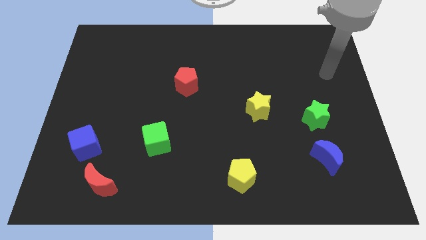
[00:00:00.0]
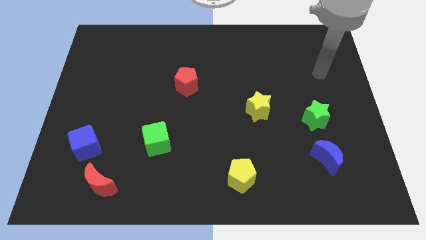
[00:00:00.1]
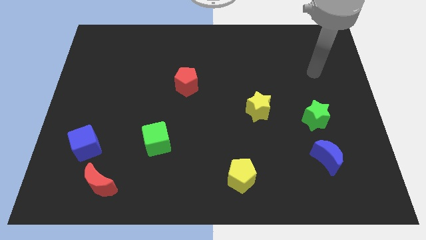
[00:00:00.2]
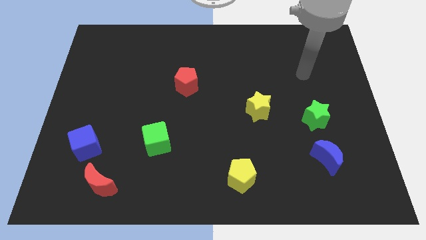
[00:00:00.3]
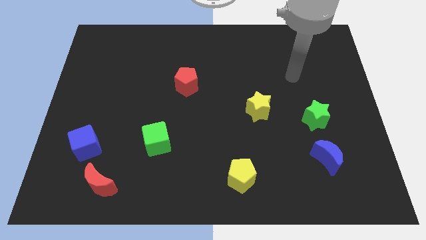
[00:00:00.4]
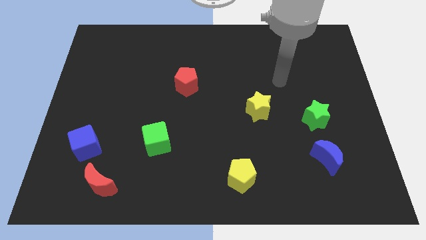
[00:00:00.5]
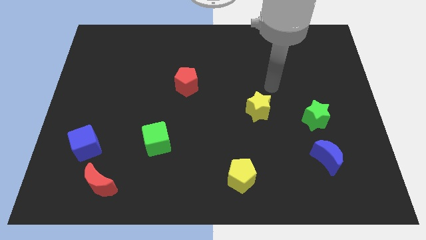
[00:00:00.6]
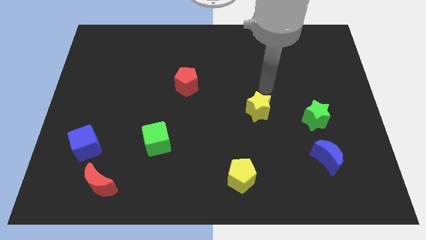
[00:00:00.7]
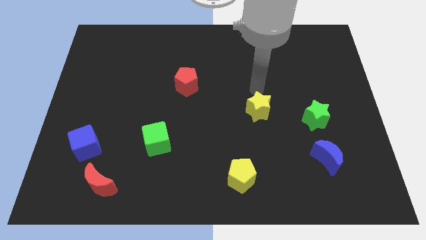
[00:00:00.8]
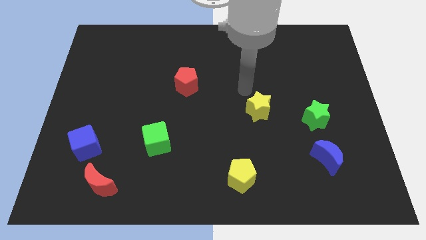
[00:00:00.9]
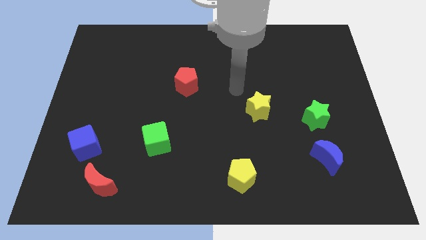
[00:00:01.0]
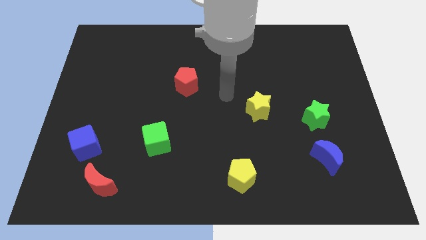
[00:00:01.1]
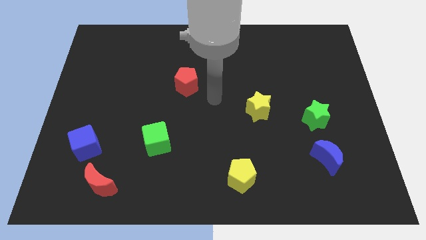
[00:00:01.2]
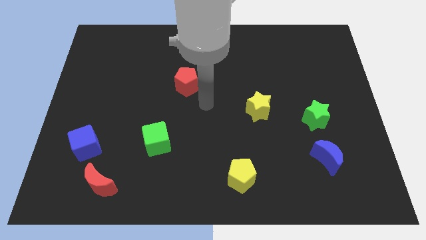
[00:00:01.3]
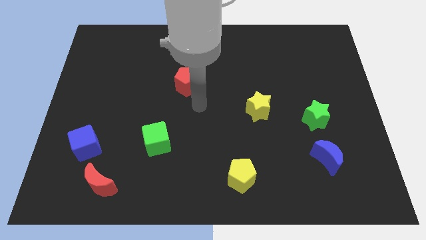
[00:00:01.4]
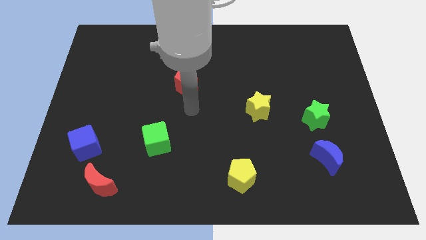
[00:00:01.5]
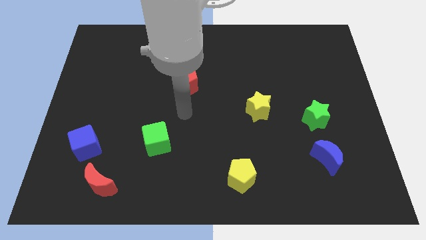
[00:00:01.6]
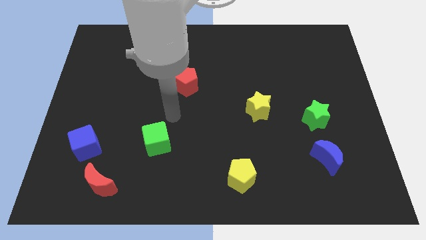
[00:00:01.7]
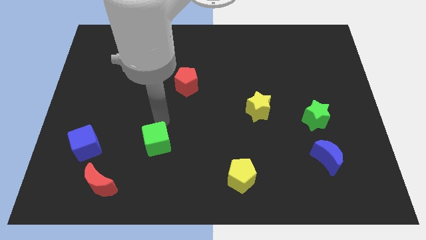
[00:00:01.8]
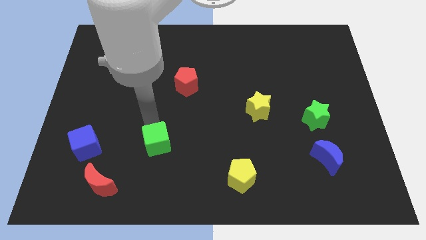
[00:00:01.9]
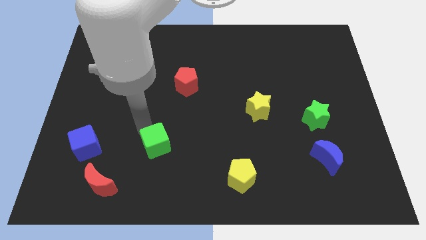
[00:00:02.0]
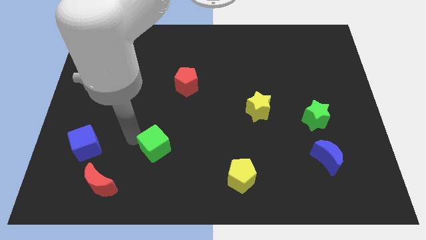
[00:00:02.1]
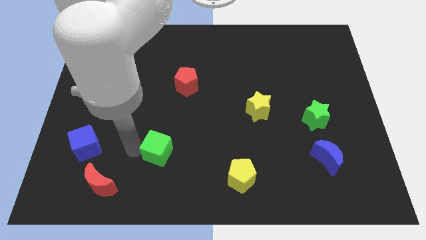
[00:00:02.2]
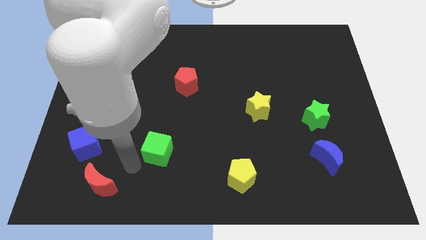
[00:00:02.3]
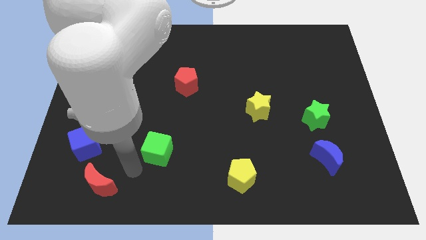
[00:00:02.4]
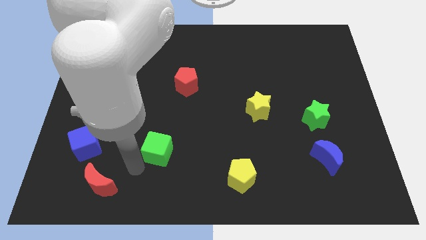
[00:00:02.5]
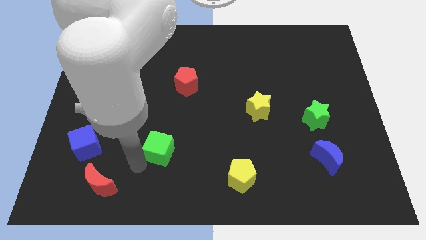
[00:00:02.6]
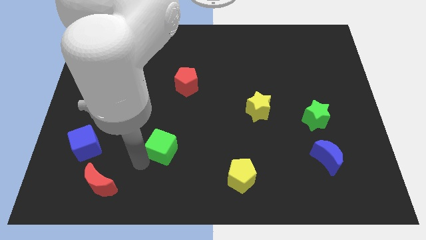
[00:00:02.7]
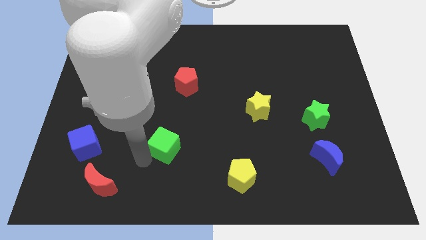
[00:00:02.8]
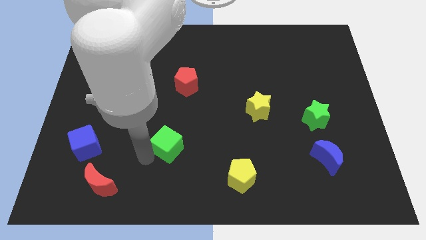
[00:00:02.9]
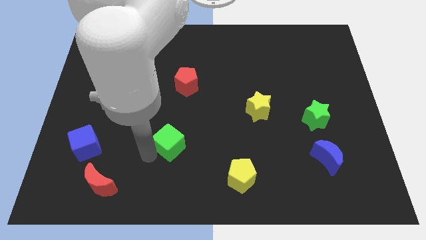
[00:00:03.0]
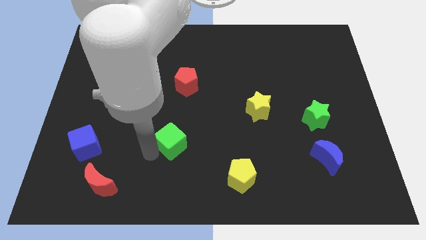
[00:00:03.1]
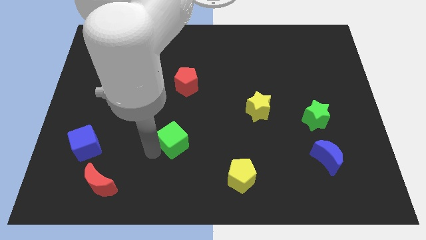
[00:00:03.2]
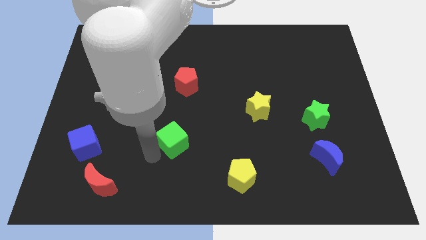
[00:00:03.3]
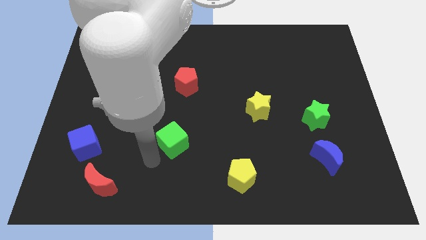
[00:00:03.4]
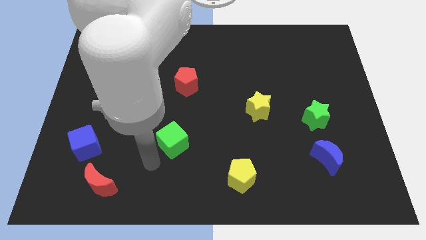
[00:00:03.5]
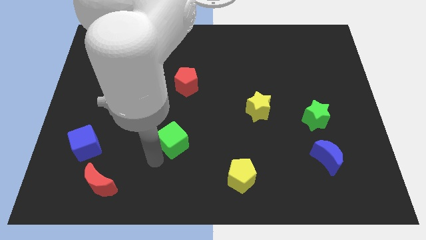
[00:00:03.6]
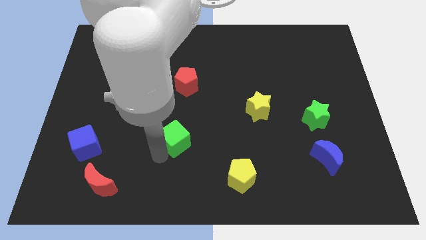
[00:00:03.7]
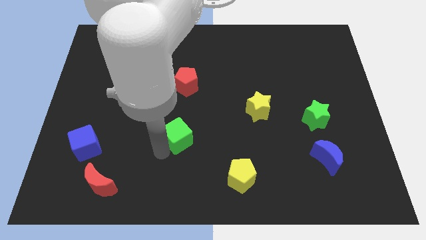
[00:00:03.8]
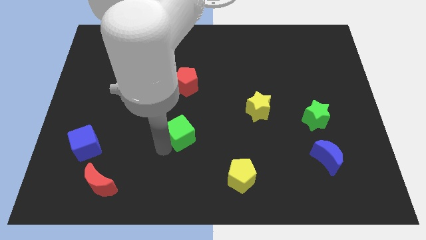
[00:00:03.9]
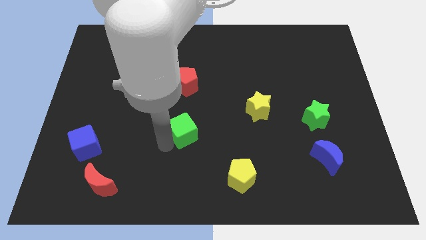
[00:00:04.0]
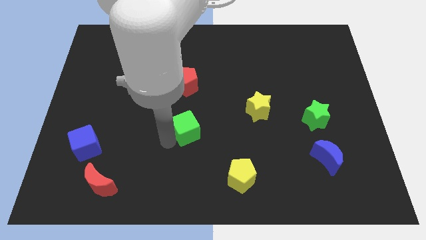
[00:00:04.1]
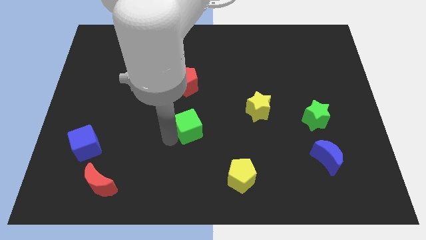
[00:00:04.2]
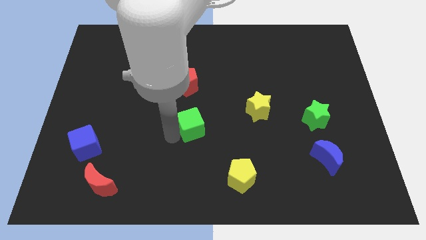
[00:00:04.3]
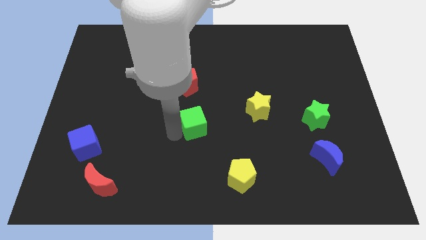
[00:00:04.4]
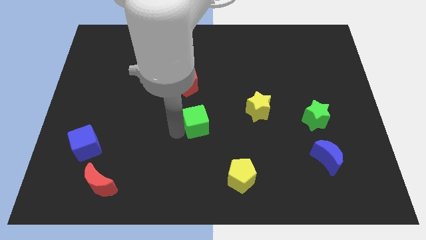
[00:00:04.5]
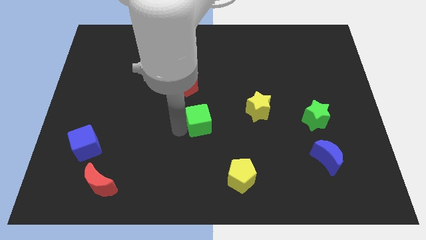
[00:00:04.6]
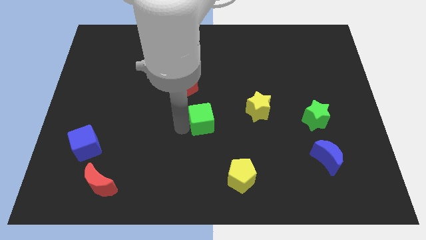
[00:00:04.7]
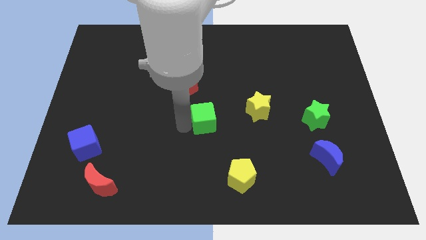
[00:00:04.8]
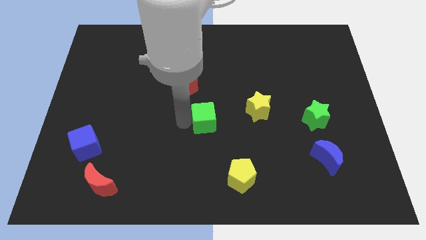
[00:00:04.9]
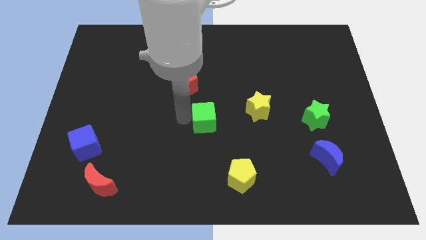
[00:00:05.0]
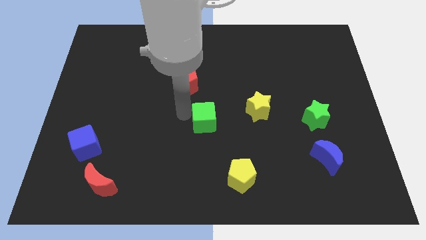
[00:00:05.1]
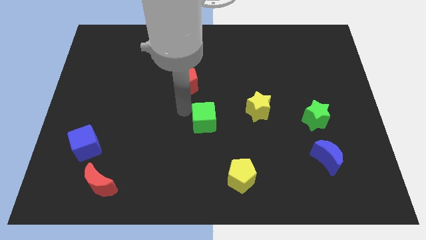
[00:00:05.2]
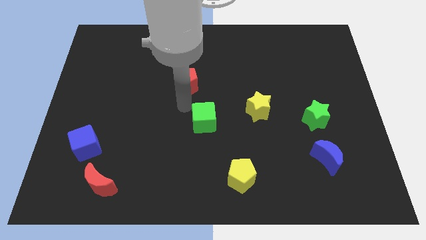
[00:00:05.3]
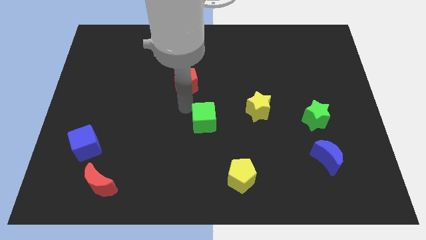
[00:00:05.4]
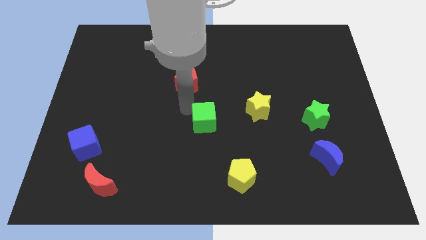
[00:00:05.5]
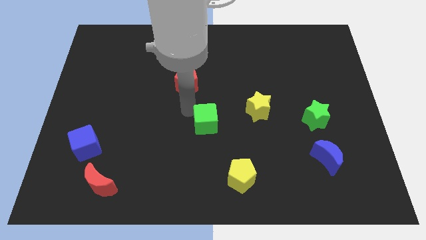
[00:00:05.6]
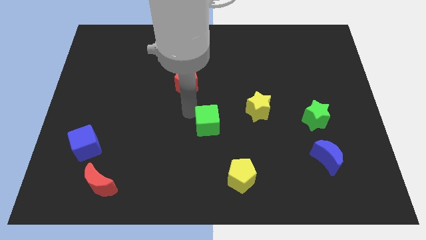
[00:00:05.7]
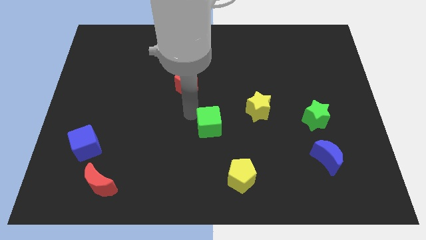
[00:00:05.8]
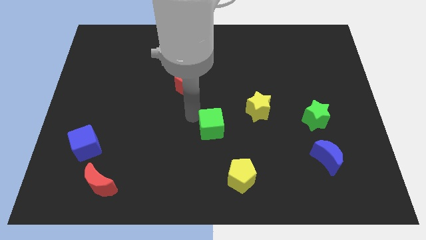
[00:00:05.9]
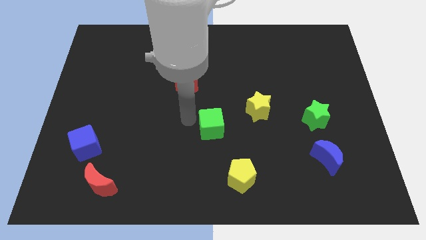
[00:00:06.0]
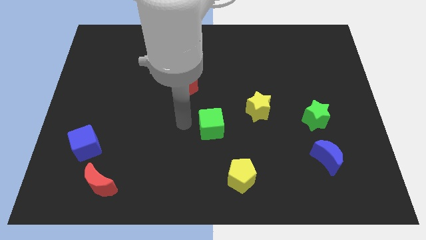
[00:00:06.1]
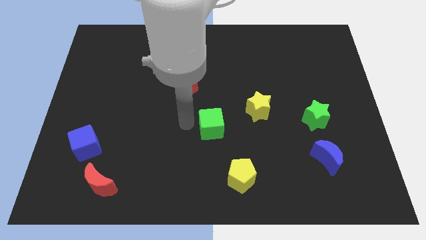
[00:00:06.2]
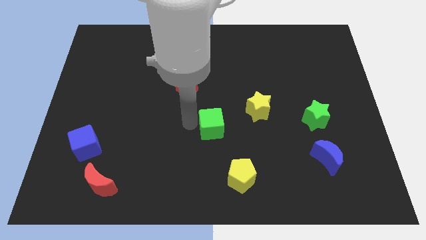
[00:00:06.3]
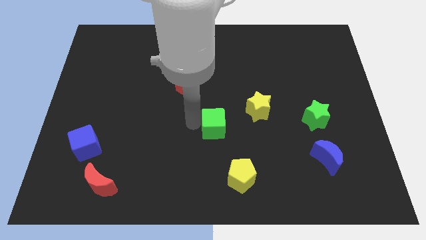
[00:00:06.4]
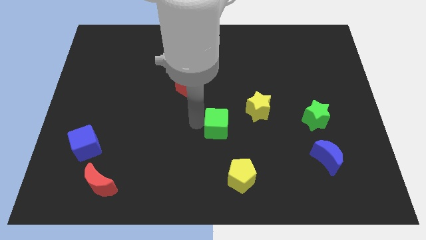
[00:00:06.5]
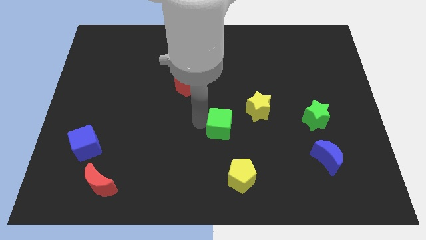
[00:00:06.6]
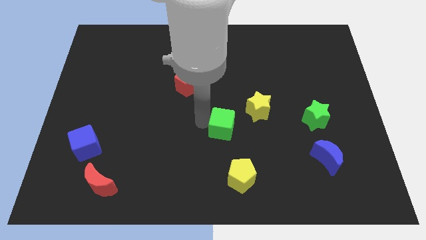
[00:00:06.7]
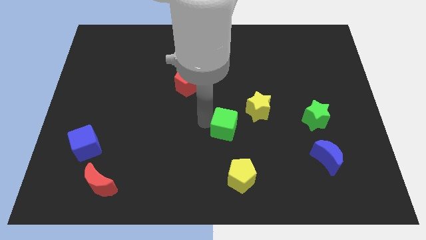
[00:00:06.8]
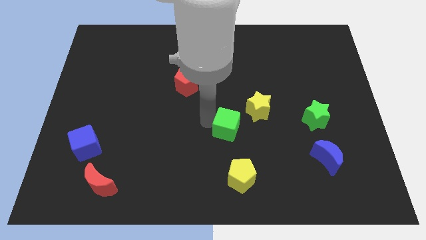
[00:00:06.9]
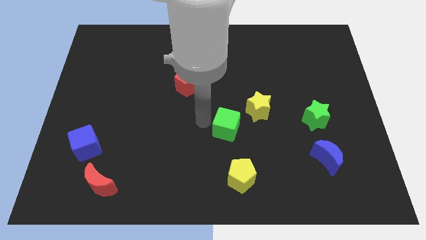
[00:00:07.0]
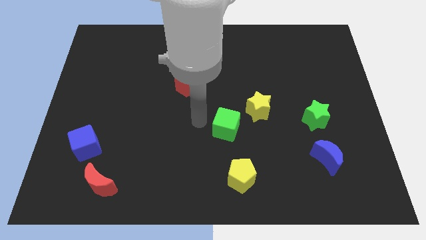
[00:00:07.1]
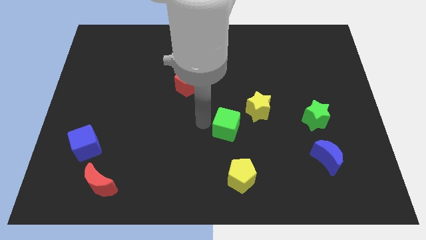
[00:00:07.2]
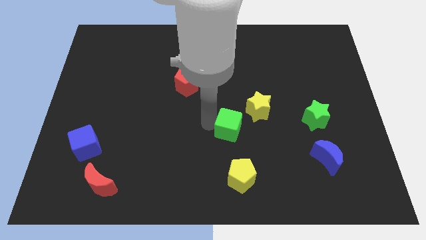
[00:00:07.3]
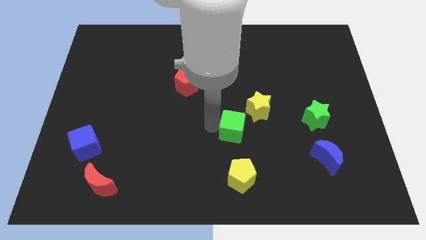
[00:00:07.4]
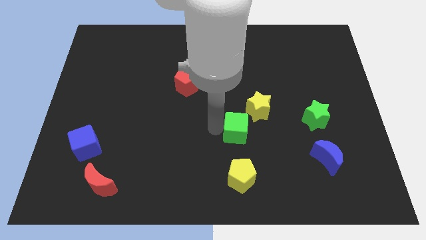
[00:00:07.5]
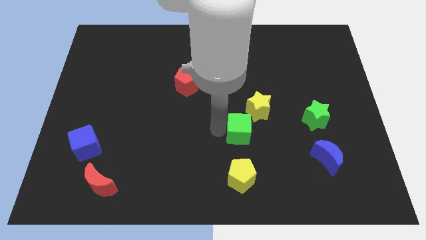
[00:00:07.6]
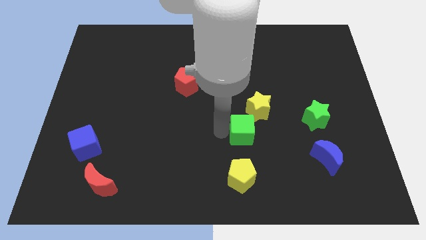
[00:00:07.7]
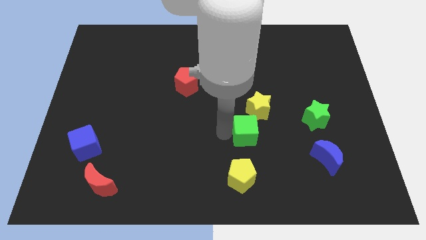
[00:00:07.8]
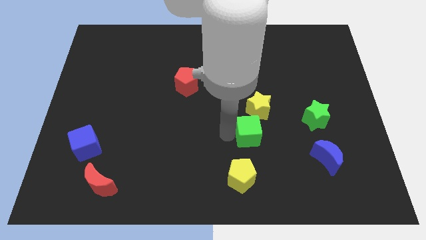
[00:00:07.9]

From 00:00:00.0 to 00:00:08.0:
slide the green cube to the right
